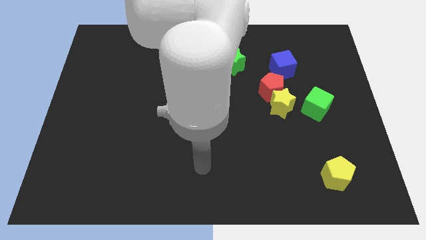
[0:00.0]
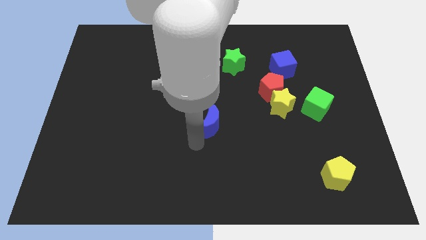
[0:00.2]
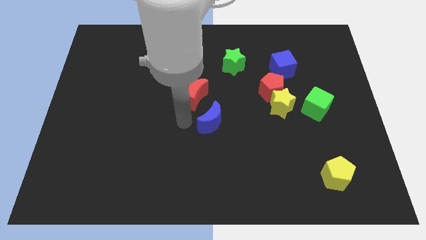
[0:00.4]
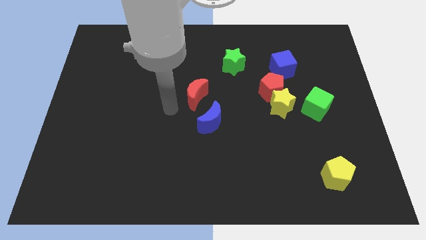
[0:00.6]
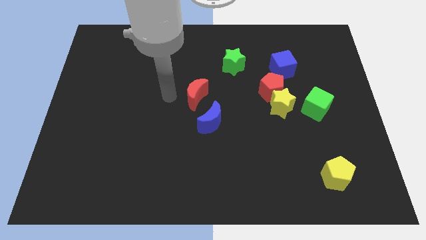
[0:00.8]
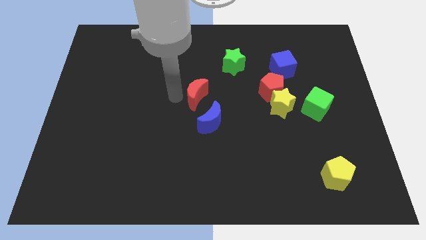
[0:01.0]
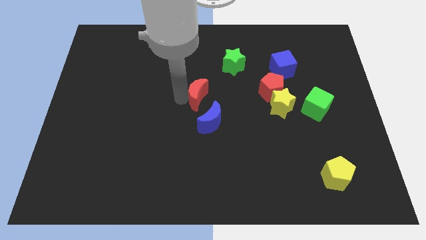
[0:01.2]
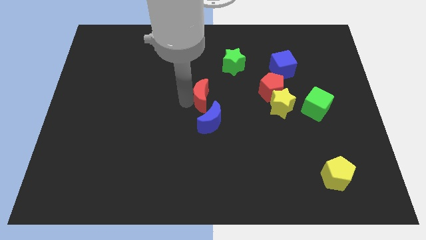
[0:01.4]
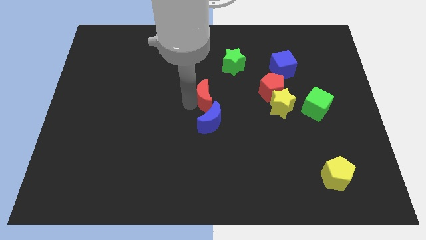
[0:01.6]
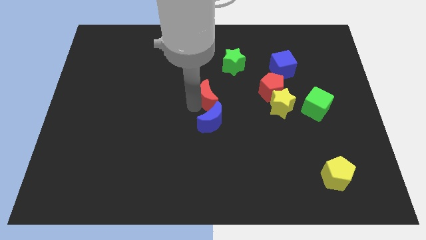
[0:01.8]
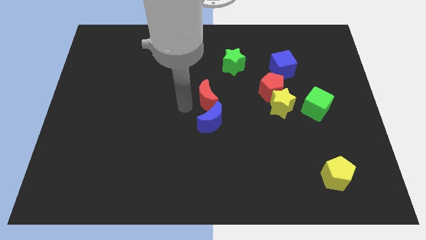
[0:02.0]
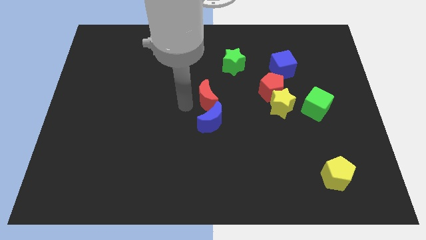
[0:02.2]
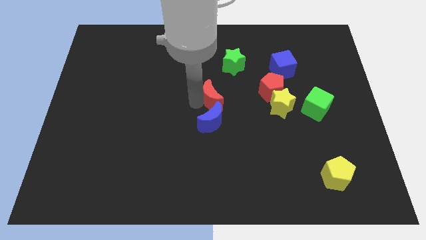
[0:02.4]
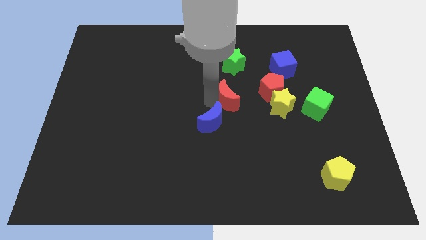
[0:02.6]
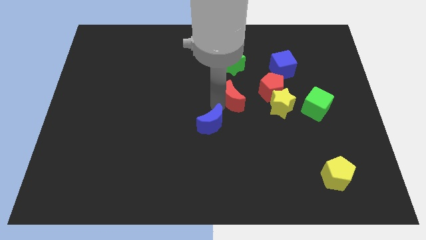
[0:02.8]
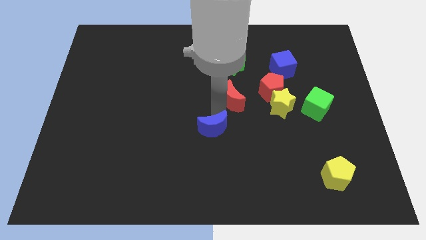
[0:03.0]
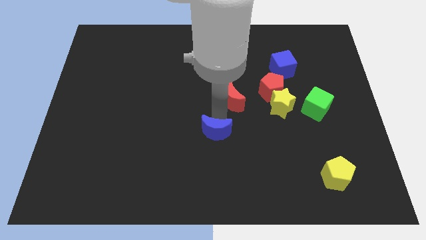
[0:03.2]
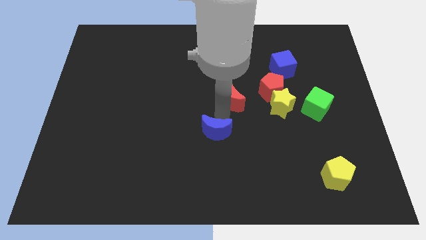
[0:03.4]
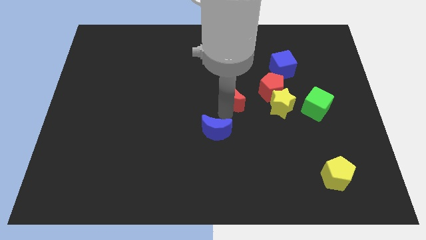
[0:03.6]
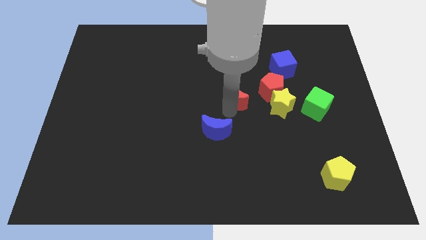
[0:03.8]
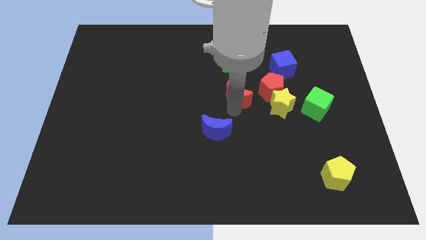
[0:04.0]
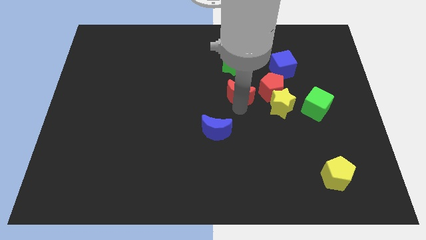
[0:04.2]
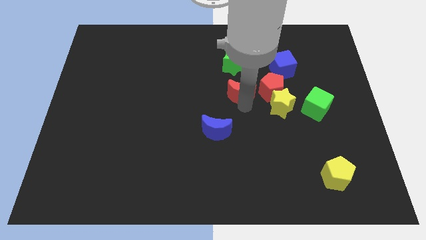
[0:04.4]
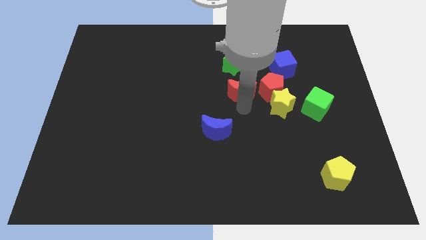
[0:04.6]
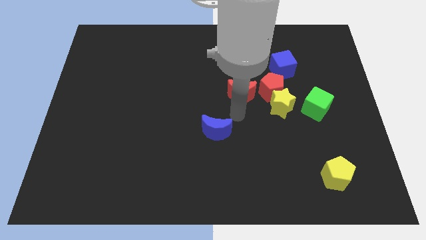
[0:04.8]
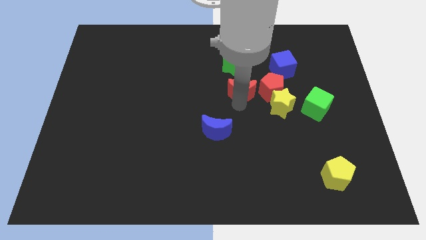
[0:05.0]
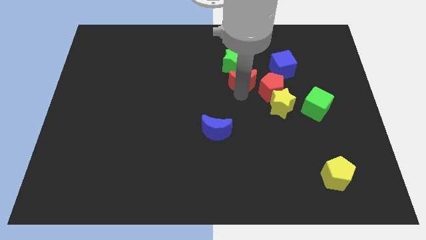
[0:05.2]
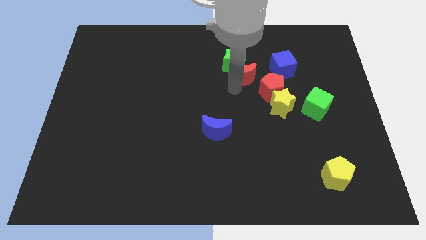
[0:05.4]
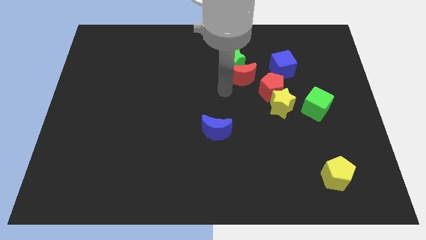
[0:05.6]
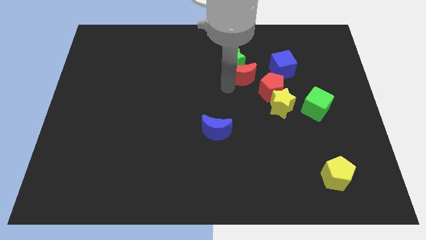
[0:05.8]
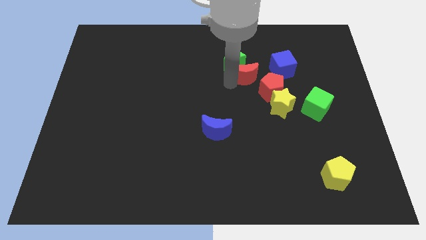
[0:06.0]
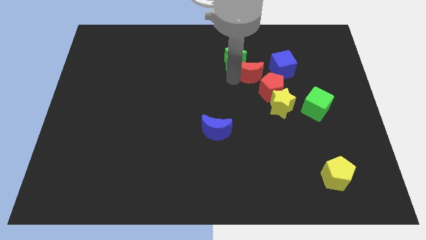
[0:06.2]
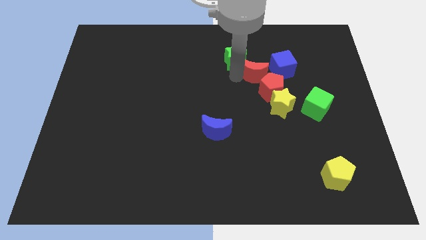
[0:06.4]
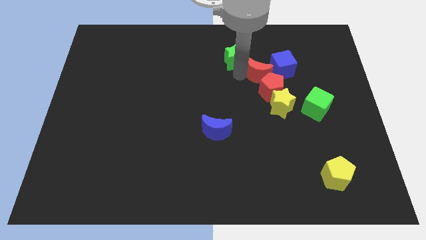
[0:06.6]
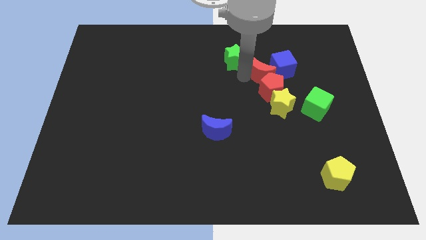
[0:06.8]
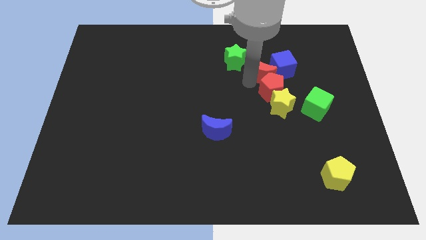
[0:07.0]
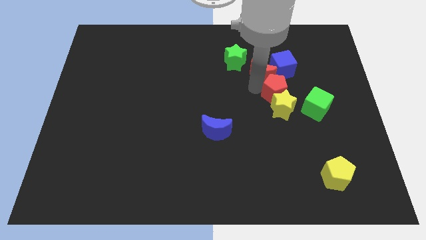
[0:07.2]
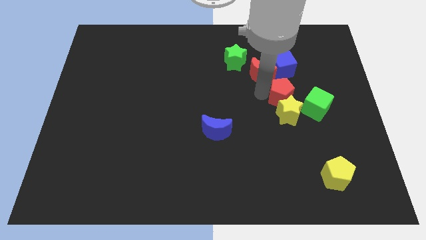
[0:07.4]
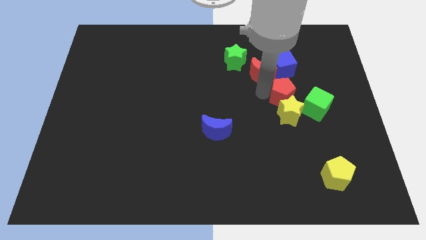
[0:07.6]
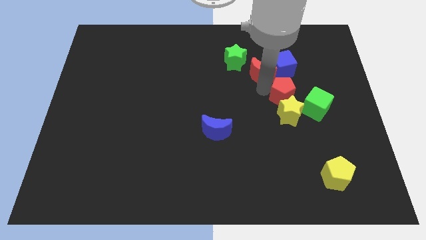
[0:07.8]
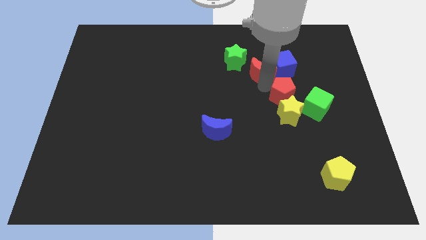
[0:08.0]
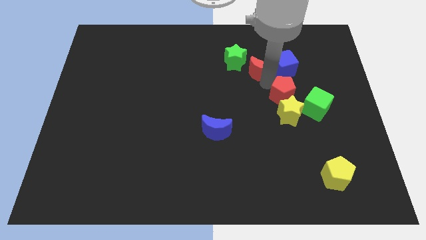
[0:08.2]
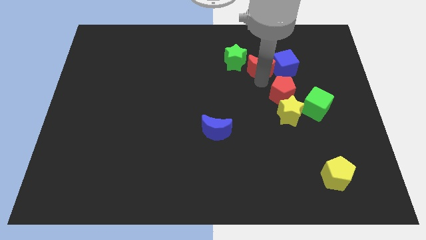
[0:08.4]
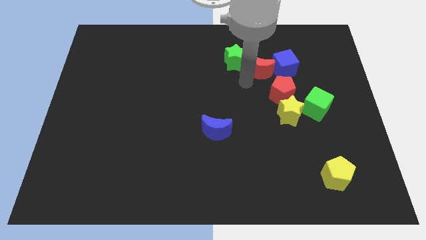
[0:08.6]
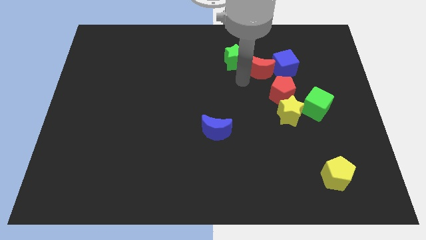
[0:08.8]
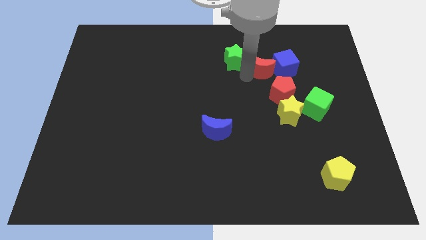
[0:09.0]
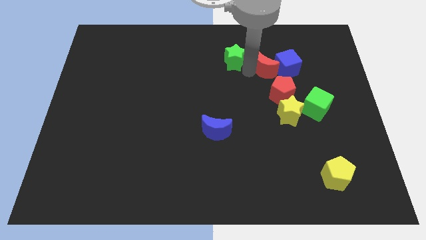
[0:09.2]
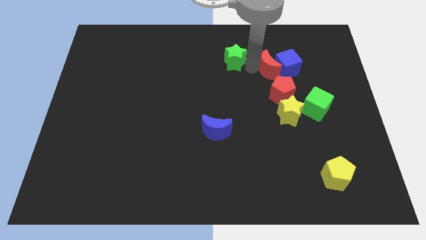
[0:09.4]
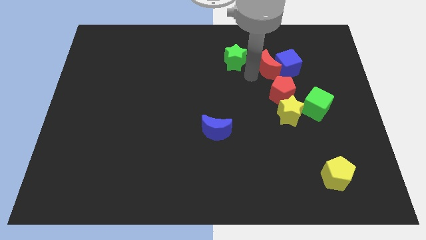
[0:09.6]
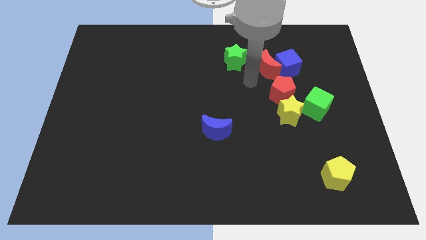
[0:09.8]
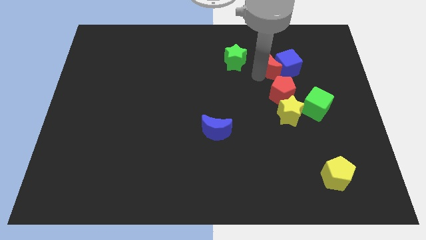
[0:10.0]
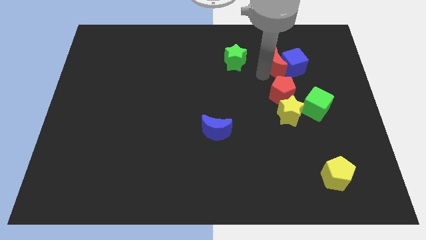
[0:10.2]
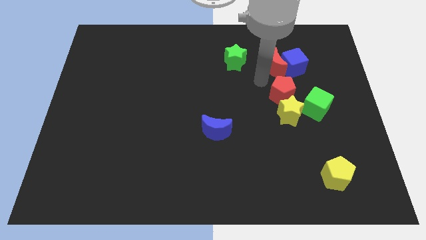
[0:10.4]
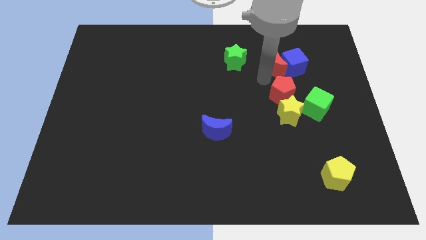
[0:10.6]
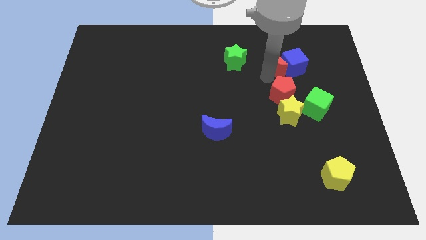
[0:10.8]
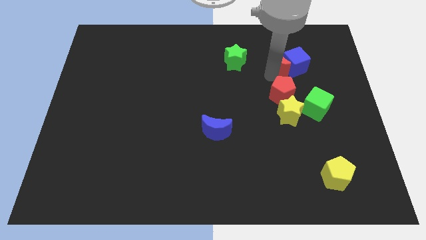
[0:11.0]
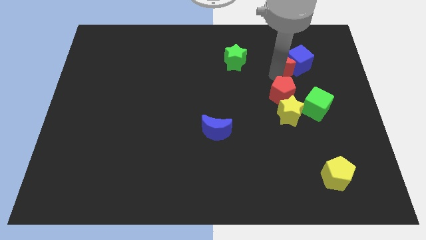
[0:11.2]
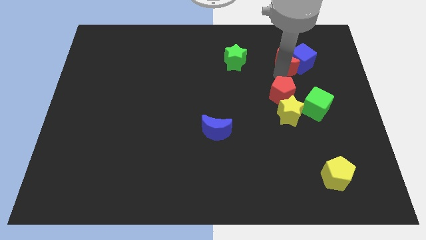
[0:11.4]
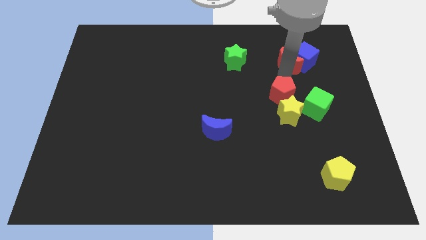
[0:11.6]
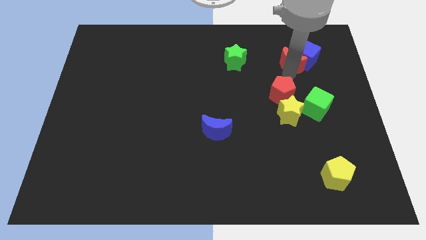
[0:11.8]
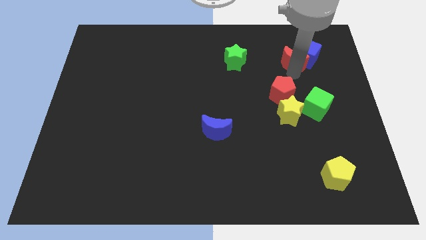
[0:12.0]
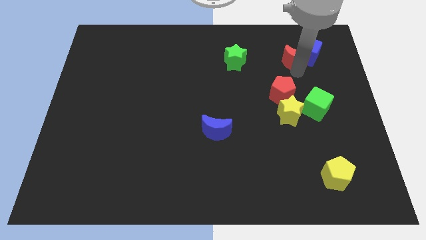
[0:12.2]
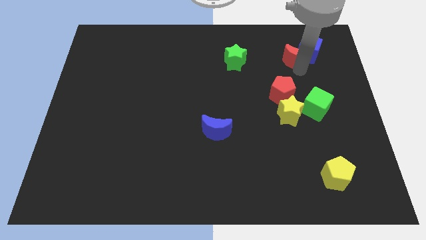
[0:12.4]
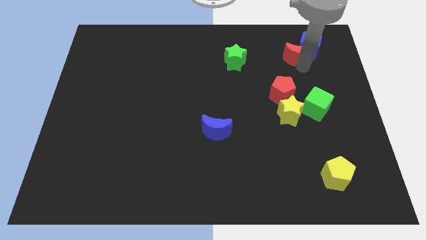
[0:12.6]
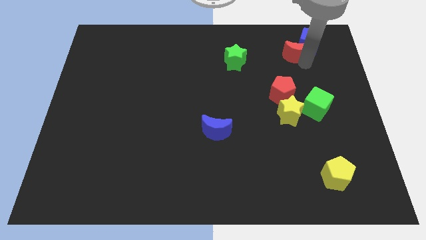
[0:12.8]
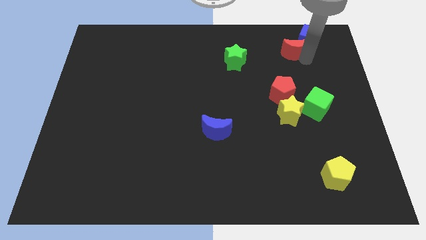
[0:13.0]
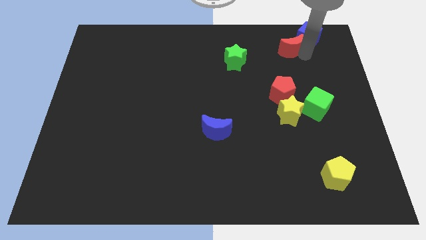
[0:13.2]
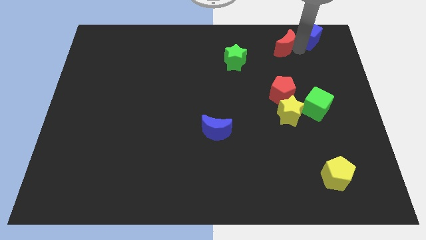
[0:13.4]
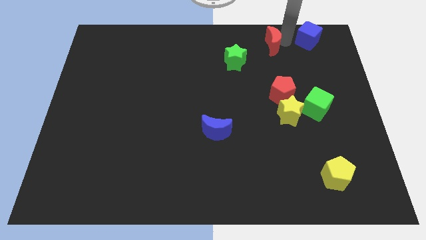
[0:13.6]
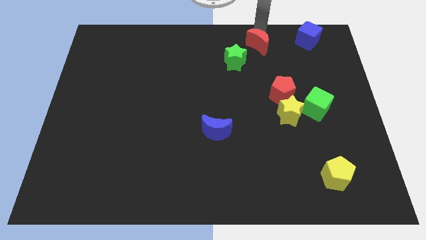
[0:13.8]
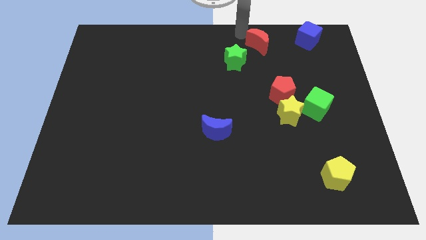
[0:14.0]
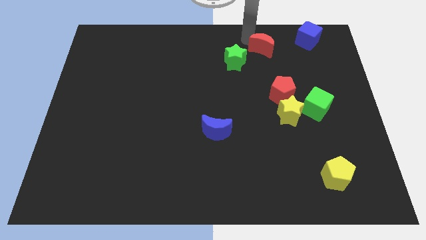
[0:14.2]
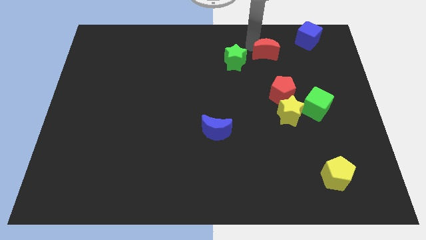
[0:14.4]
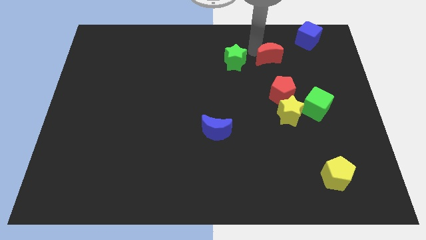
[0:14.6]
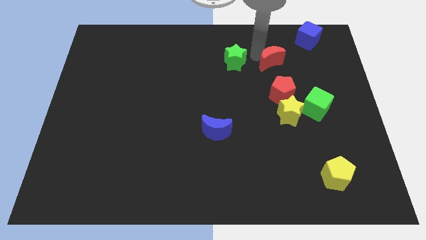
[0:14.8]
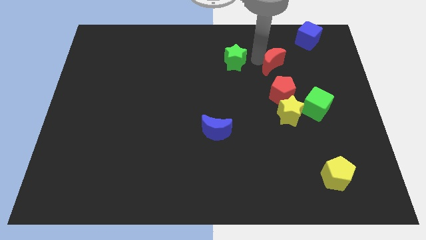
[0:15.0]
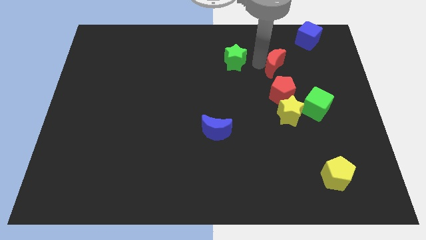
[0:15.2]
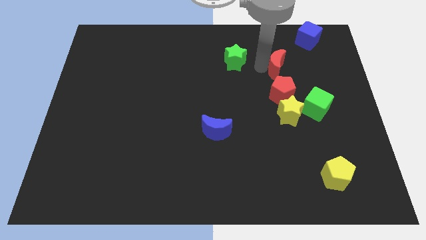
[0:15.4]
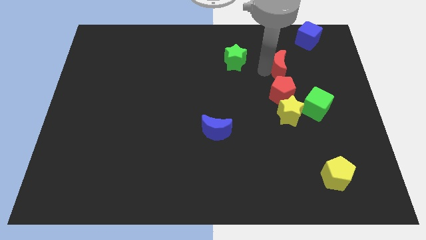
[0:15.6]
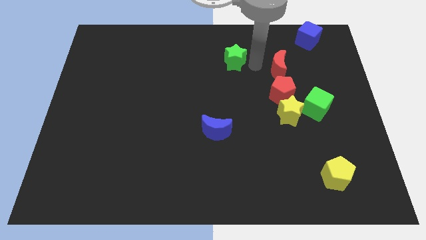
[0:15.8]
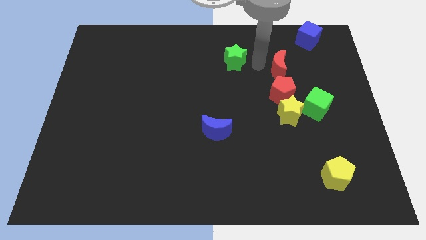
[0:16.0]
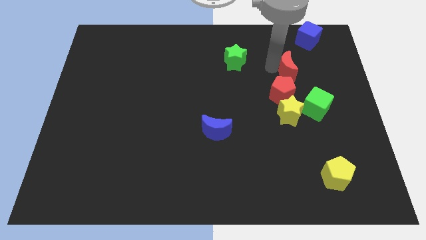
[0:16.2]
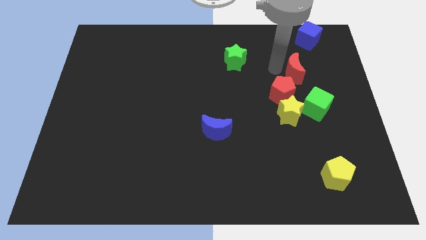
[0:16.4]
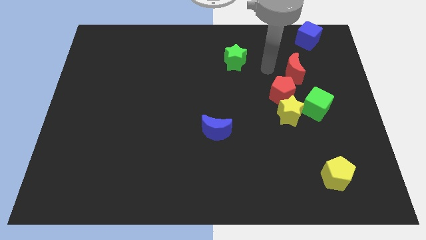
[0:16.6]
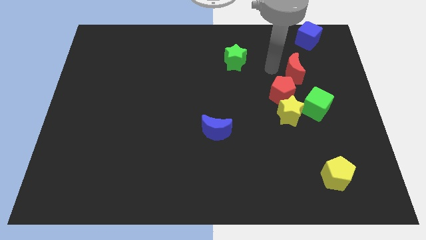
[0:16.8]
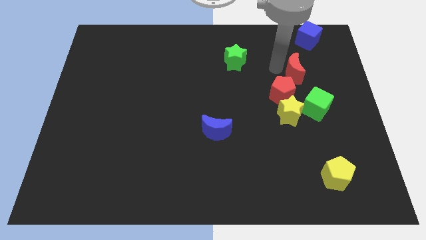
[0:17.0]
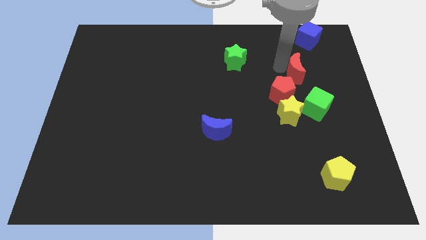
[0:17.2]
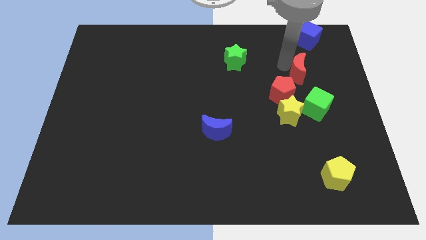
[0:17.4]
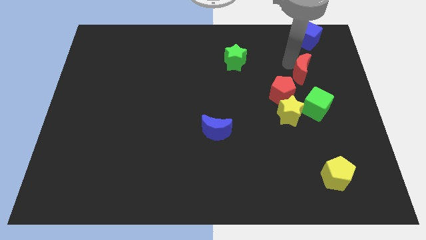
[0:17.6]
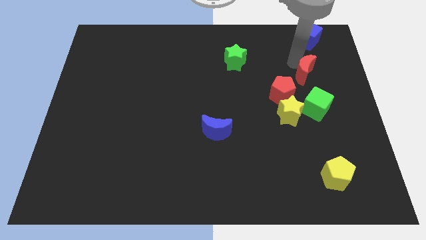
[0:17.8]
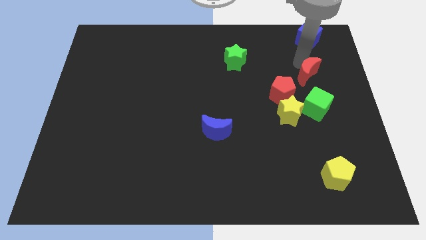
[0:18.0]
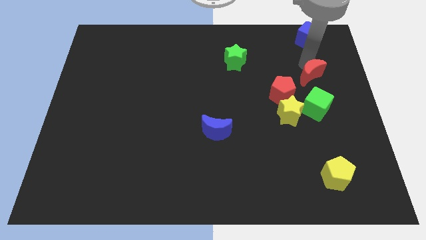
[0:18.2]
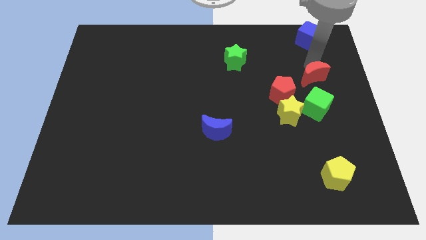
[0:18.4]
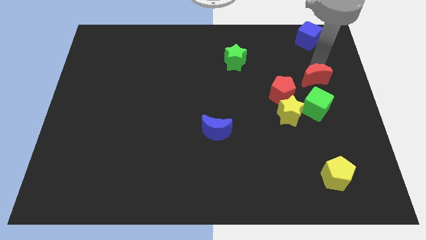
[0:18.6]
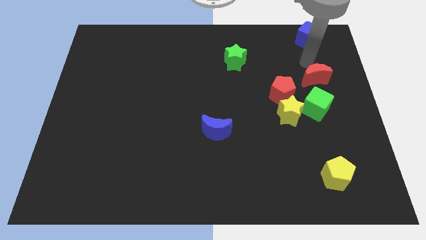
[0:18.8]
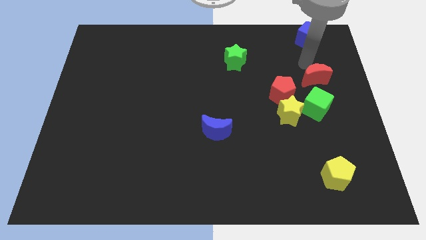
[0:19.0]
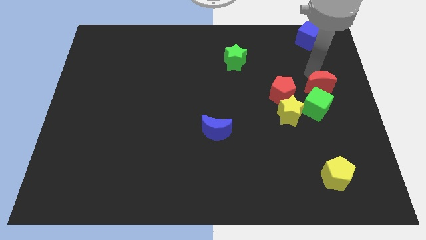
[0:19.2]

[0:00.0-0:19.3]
slide the red moon to the right of the red pentagon
